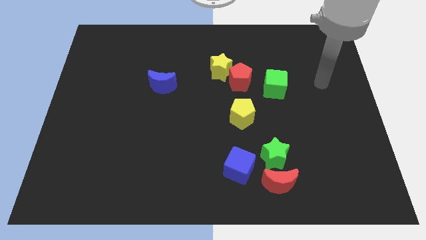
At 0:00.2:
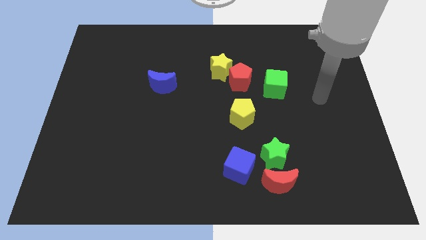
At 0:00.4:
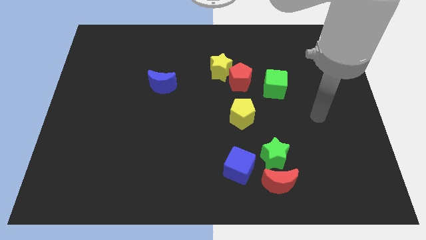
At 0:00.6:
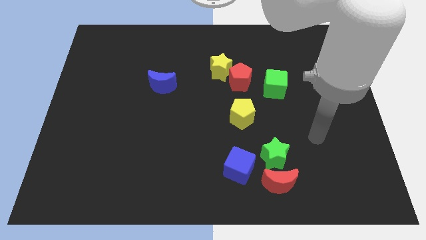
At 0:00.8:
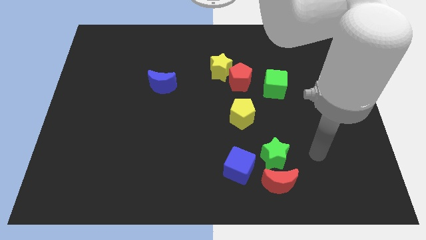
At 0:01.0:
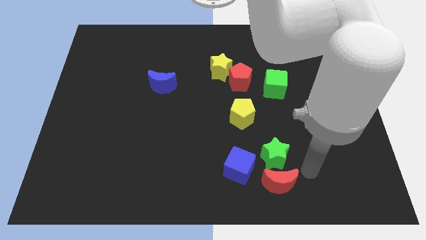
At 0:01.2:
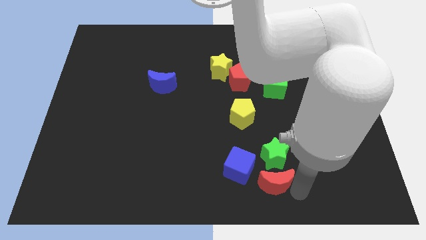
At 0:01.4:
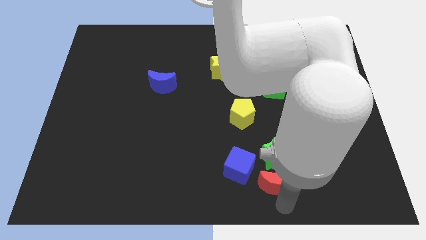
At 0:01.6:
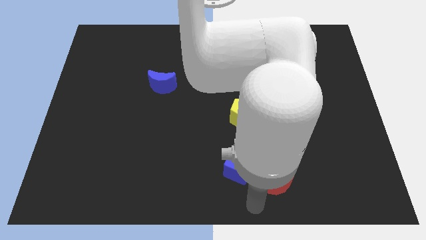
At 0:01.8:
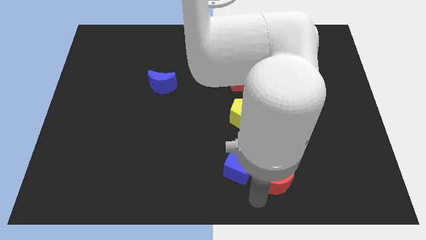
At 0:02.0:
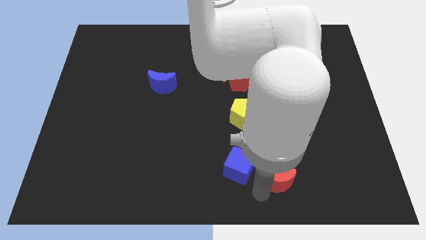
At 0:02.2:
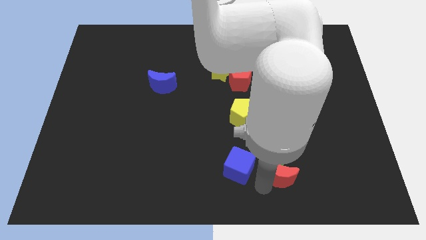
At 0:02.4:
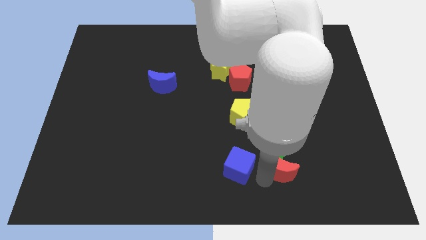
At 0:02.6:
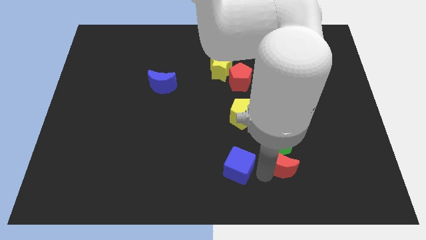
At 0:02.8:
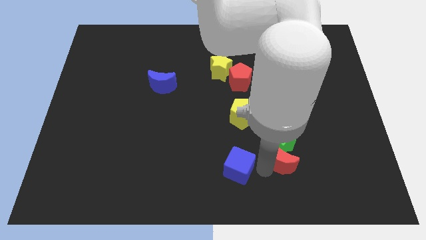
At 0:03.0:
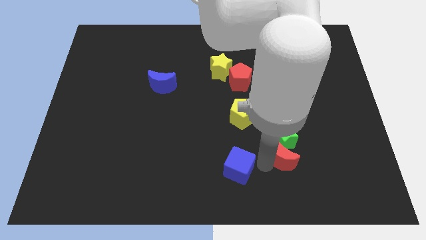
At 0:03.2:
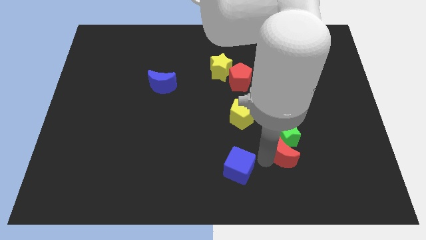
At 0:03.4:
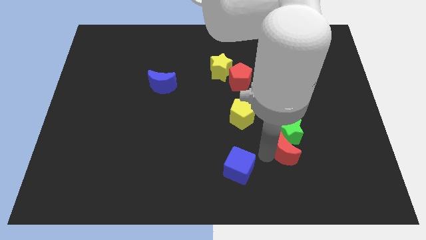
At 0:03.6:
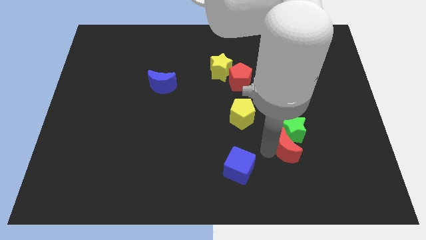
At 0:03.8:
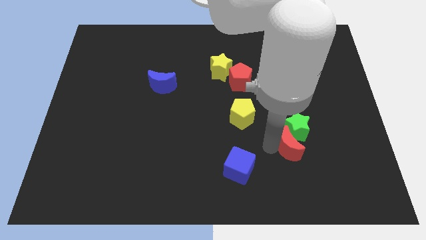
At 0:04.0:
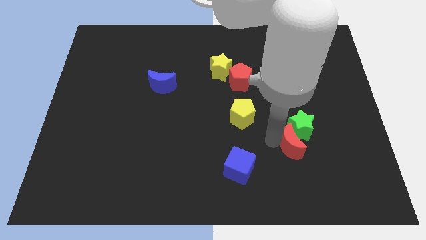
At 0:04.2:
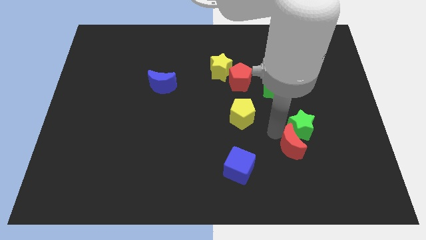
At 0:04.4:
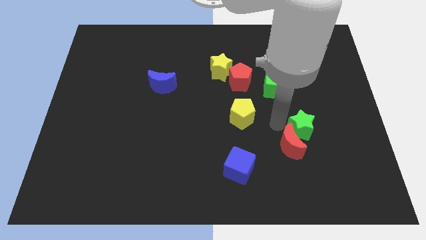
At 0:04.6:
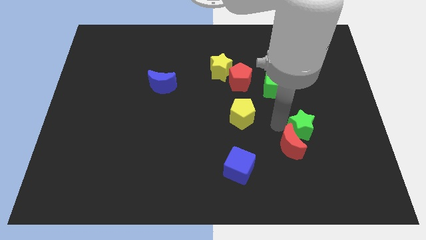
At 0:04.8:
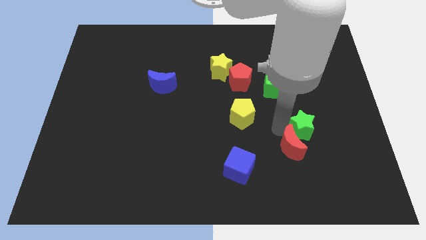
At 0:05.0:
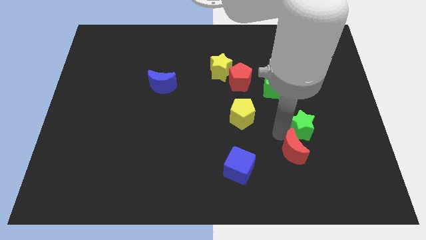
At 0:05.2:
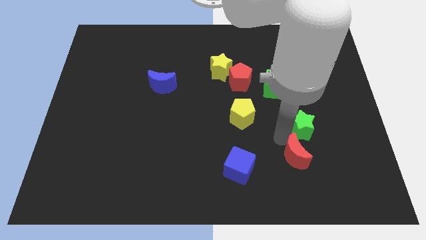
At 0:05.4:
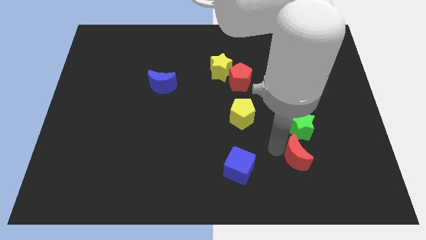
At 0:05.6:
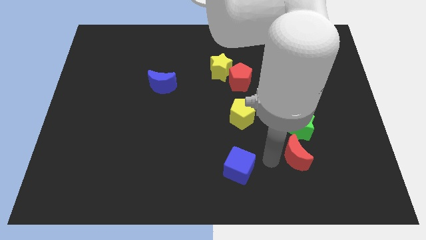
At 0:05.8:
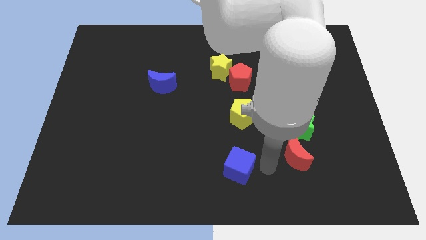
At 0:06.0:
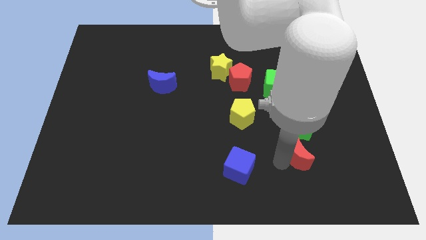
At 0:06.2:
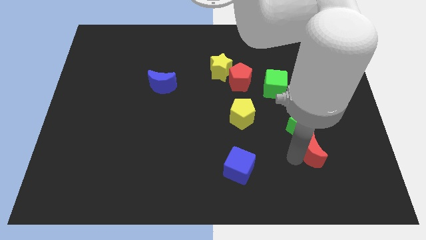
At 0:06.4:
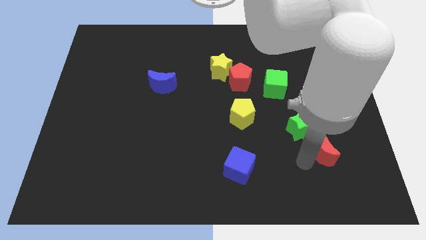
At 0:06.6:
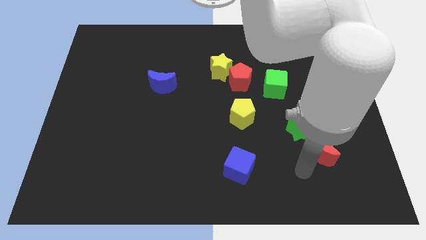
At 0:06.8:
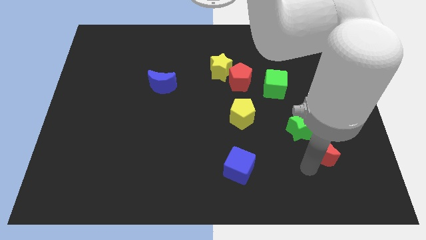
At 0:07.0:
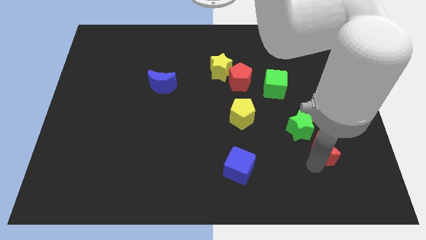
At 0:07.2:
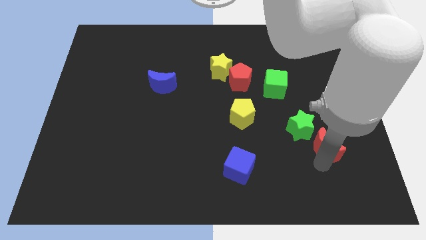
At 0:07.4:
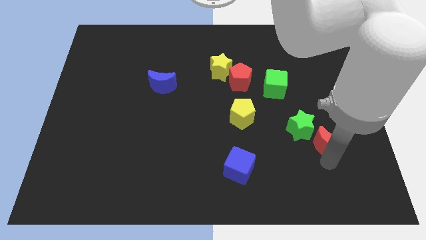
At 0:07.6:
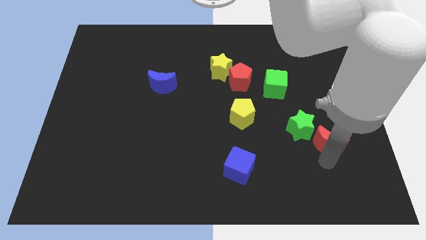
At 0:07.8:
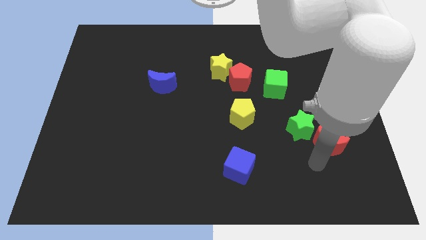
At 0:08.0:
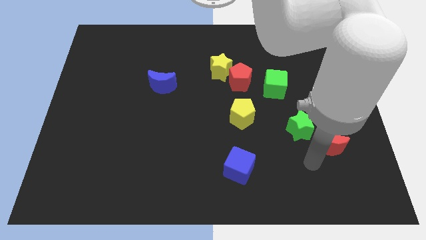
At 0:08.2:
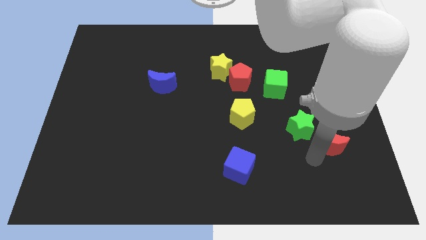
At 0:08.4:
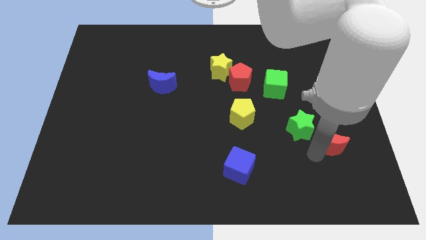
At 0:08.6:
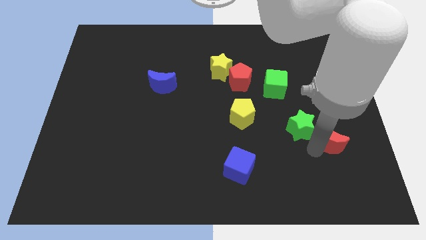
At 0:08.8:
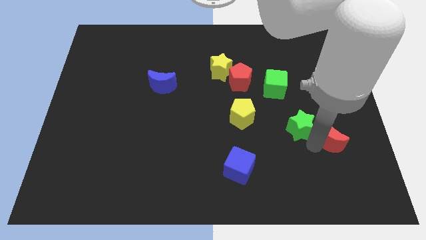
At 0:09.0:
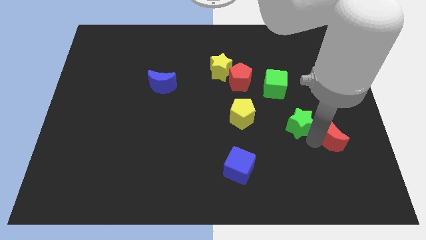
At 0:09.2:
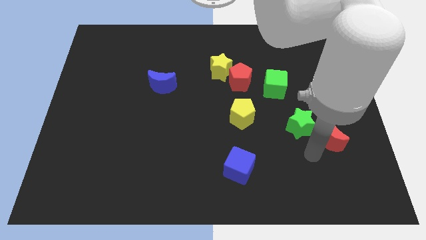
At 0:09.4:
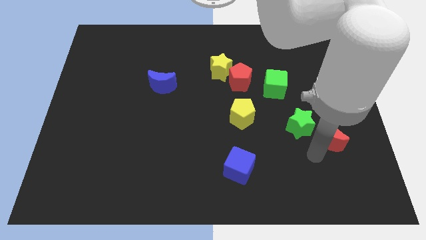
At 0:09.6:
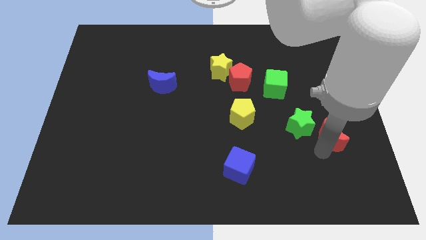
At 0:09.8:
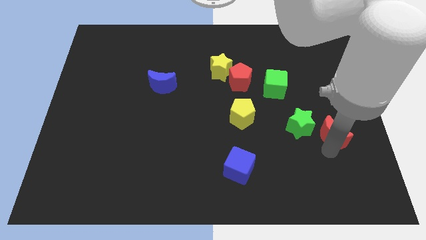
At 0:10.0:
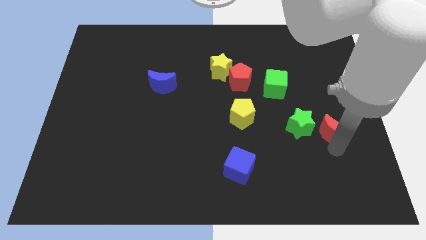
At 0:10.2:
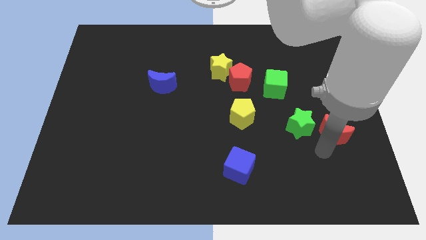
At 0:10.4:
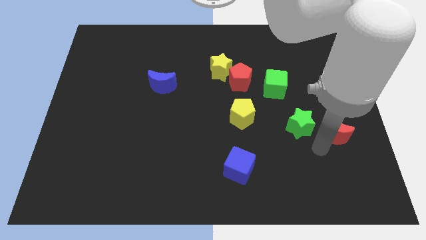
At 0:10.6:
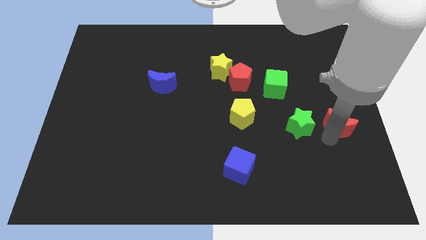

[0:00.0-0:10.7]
move the red moon to the right side

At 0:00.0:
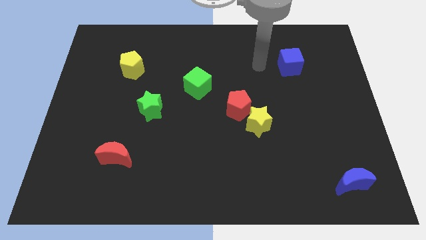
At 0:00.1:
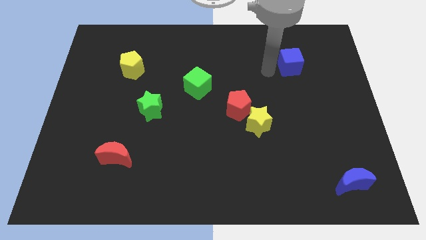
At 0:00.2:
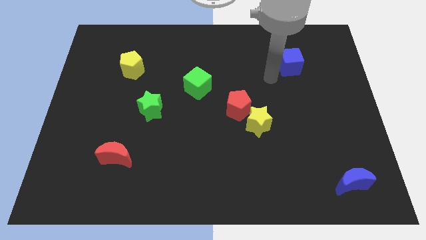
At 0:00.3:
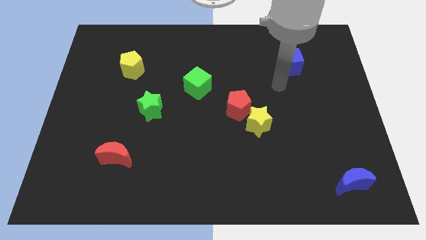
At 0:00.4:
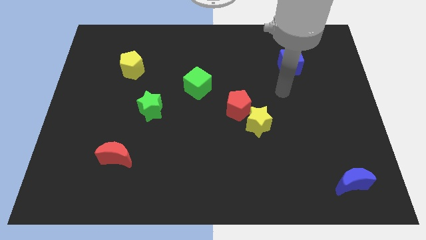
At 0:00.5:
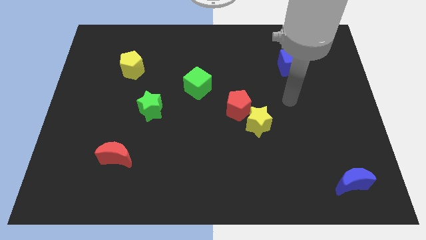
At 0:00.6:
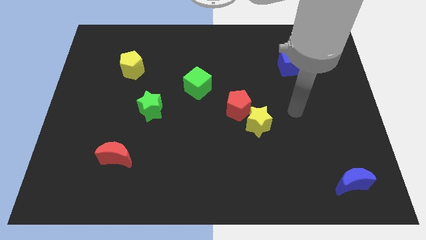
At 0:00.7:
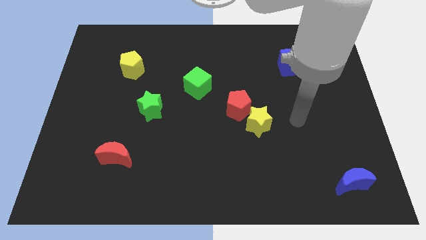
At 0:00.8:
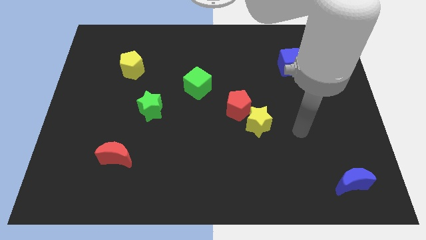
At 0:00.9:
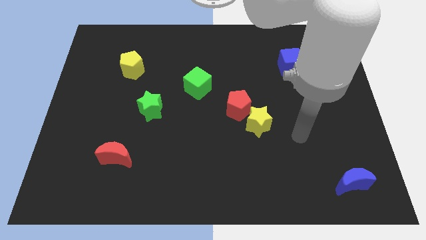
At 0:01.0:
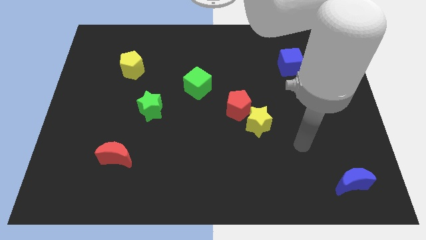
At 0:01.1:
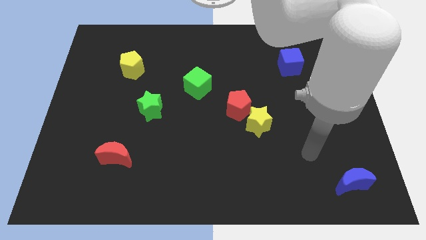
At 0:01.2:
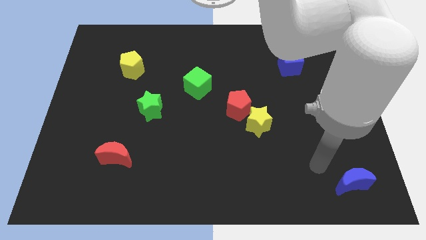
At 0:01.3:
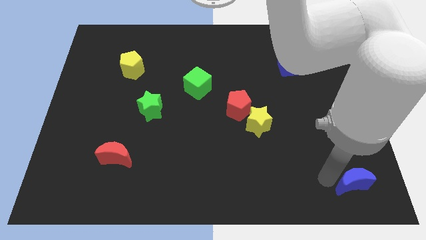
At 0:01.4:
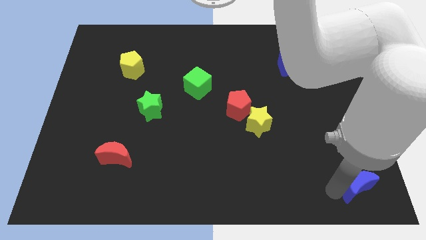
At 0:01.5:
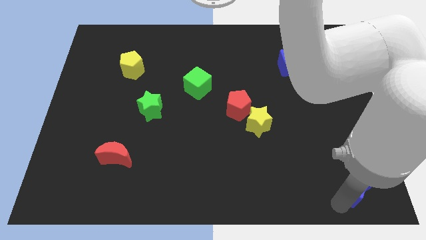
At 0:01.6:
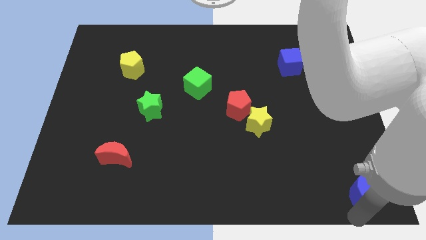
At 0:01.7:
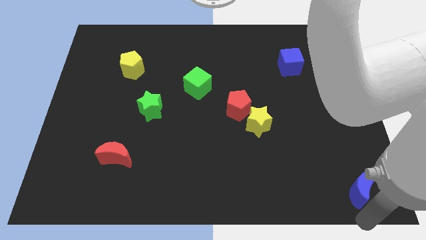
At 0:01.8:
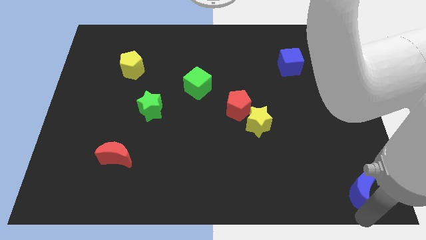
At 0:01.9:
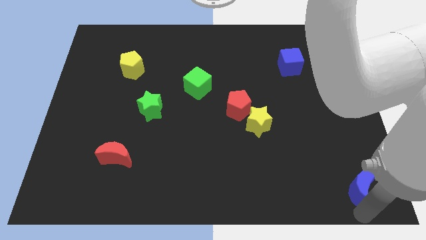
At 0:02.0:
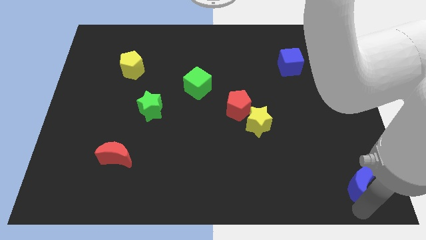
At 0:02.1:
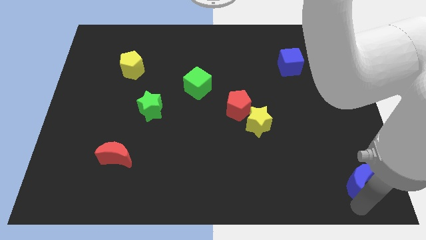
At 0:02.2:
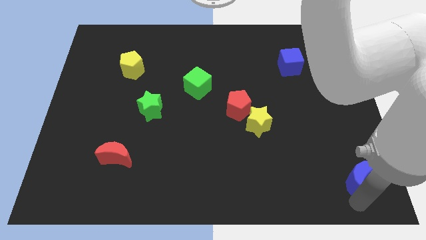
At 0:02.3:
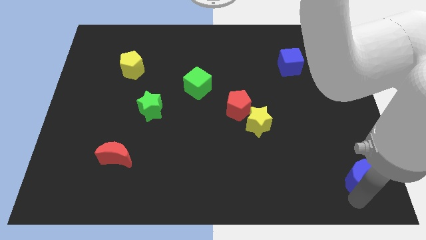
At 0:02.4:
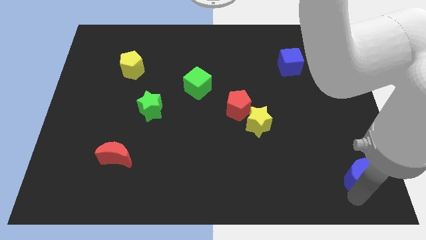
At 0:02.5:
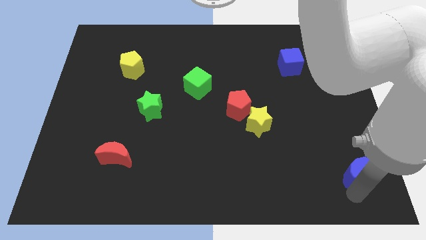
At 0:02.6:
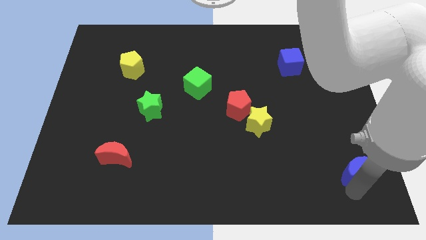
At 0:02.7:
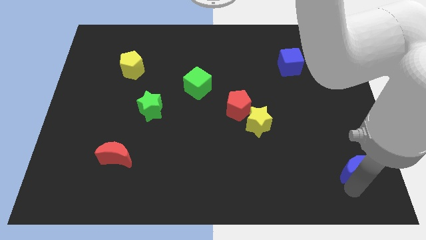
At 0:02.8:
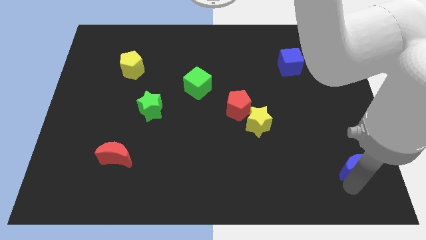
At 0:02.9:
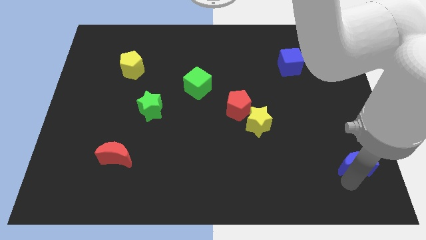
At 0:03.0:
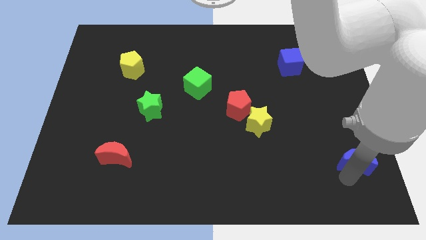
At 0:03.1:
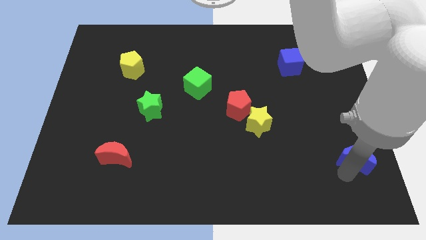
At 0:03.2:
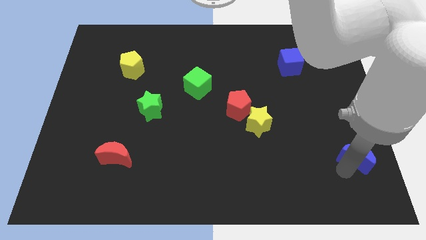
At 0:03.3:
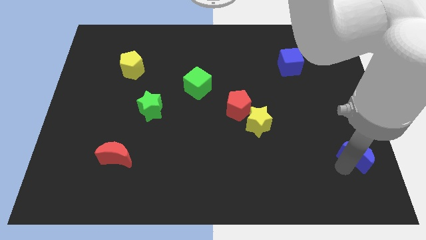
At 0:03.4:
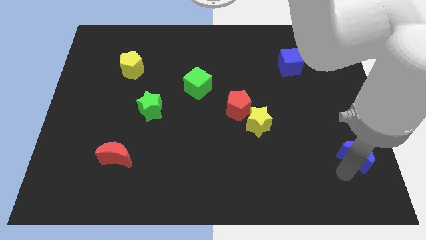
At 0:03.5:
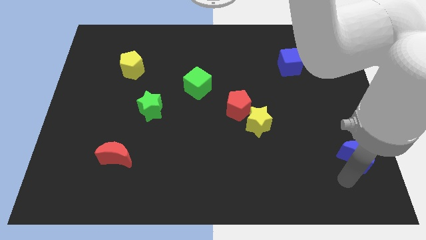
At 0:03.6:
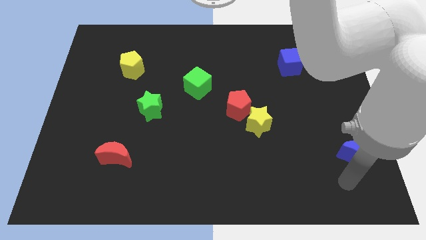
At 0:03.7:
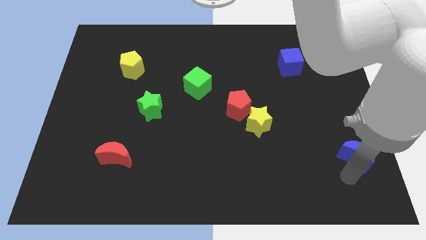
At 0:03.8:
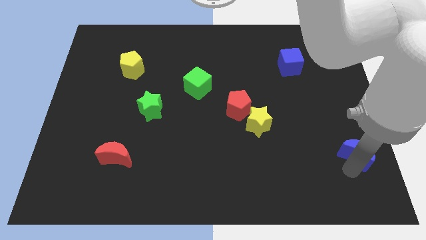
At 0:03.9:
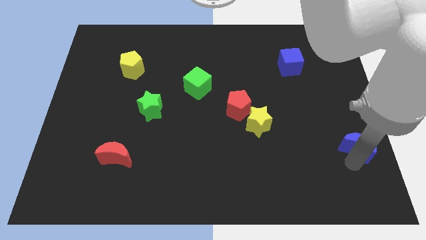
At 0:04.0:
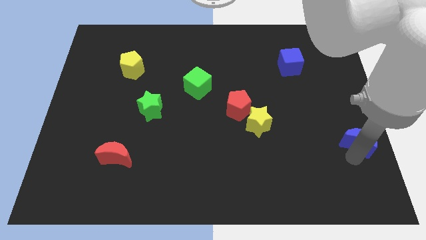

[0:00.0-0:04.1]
slide the blue moon to the center right
